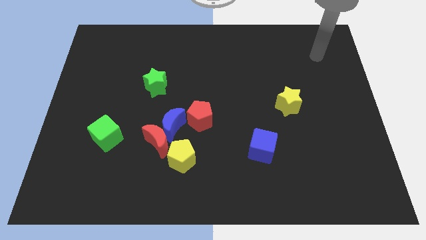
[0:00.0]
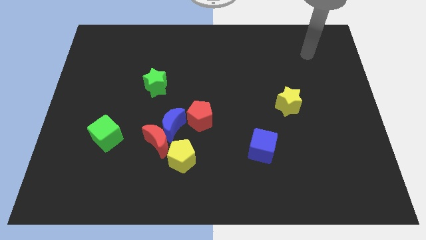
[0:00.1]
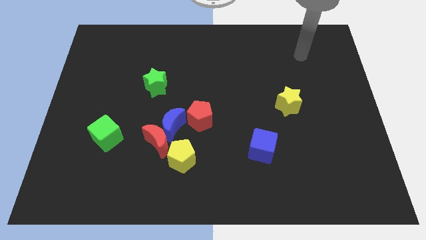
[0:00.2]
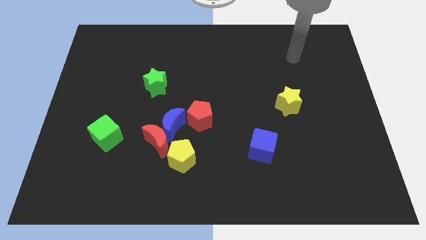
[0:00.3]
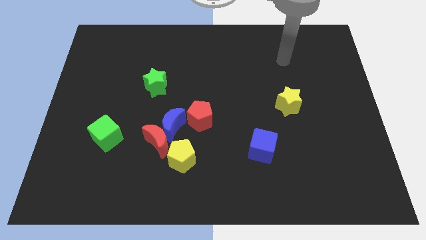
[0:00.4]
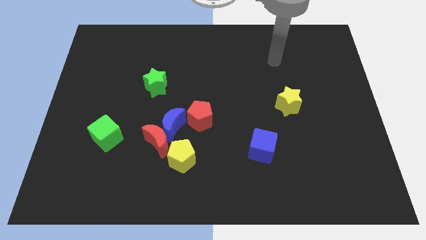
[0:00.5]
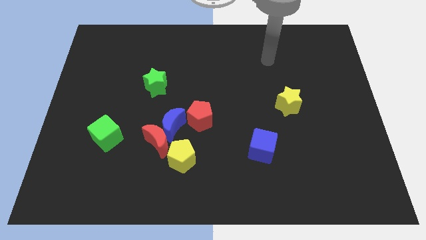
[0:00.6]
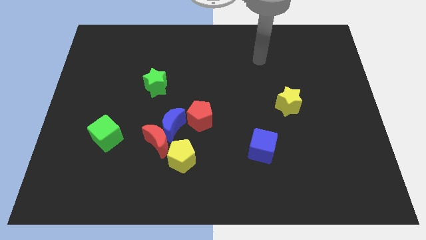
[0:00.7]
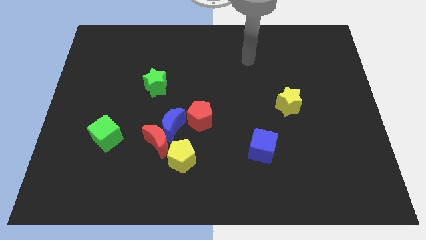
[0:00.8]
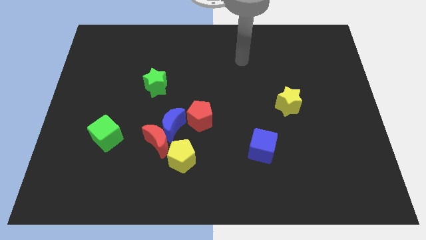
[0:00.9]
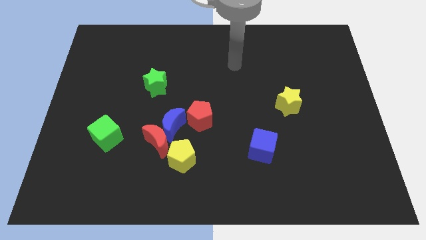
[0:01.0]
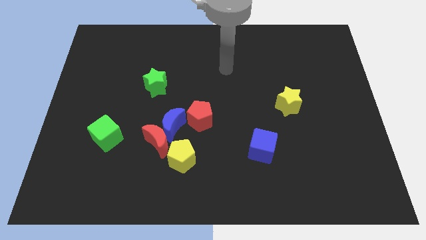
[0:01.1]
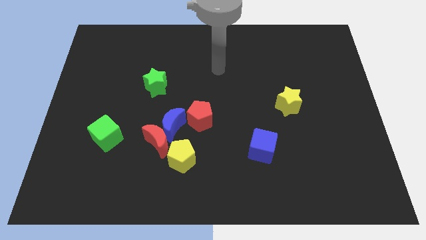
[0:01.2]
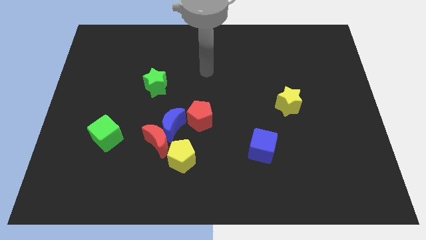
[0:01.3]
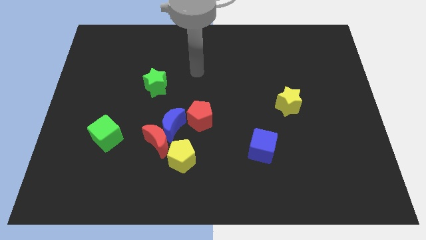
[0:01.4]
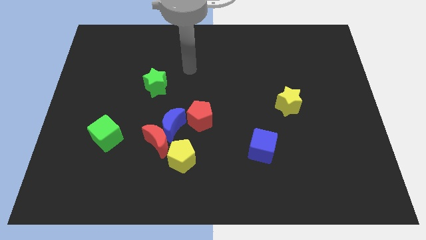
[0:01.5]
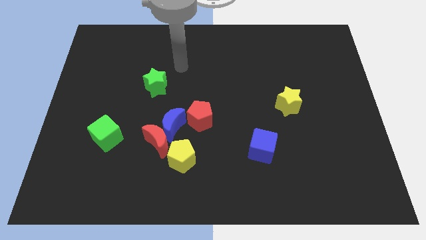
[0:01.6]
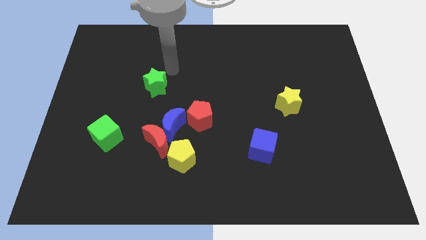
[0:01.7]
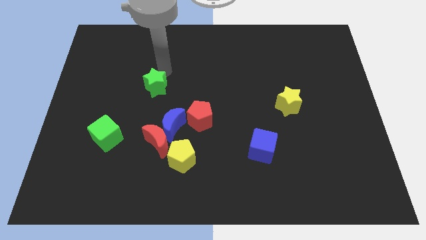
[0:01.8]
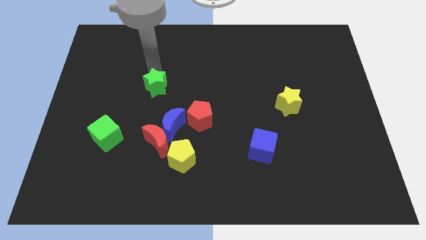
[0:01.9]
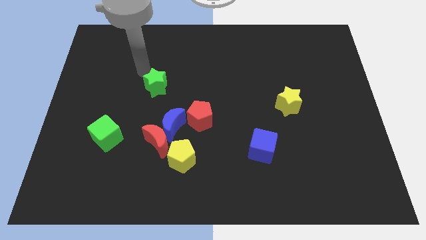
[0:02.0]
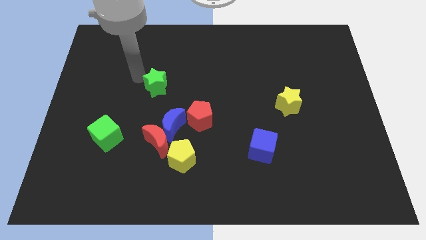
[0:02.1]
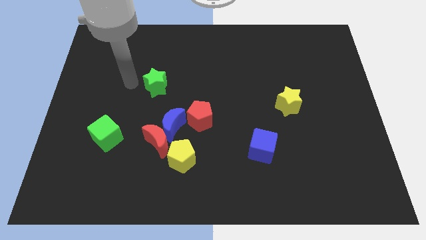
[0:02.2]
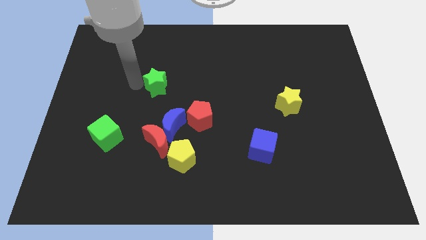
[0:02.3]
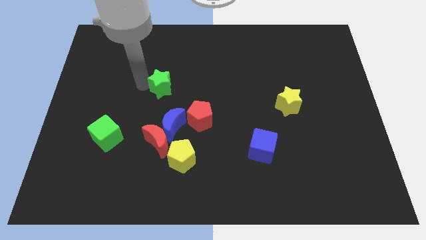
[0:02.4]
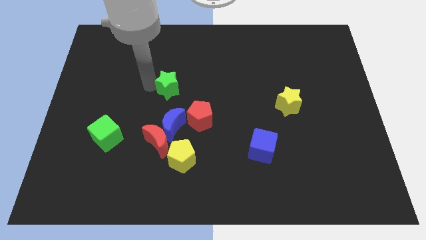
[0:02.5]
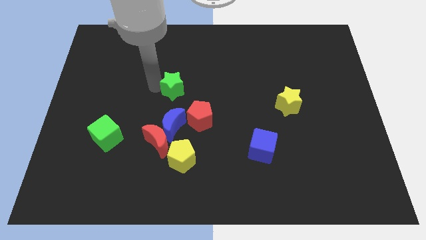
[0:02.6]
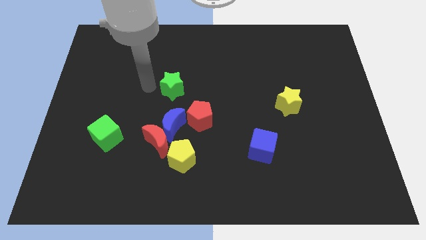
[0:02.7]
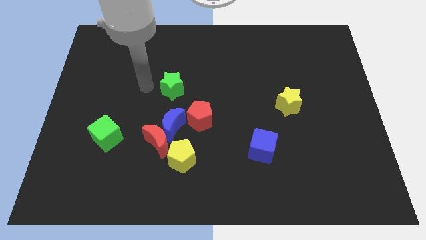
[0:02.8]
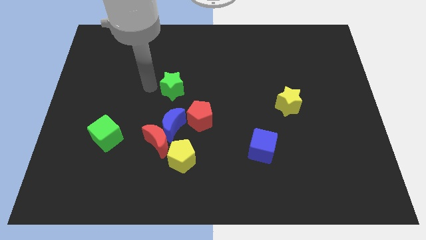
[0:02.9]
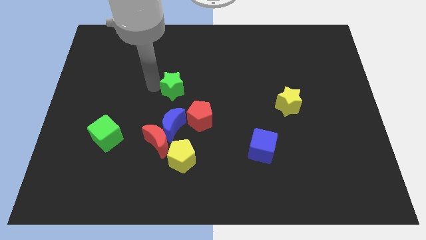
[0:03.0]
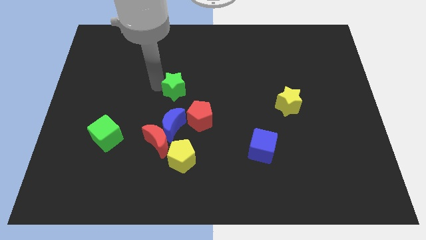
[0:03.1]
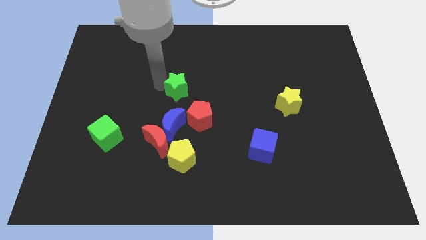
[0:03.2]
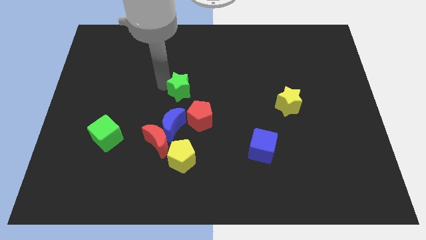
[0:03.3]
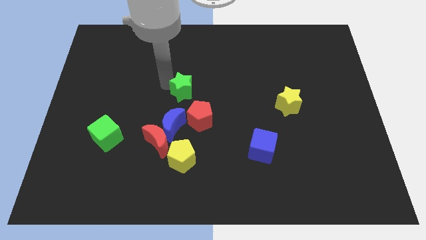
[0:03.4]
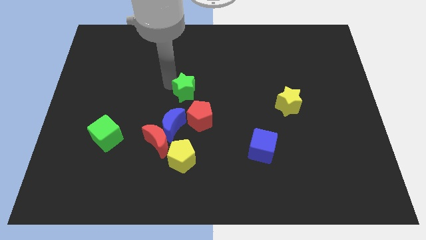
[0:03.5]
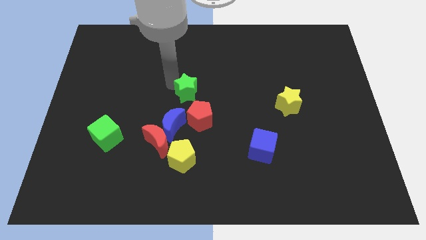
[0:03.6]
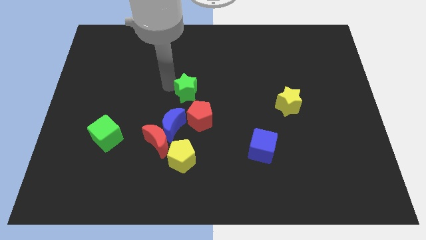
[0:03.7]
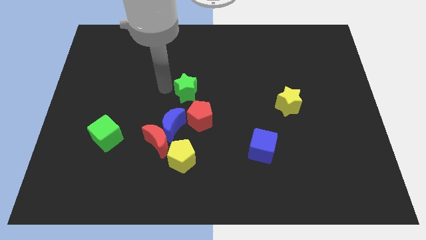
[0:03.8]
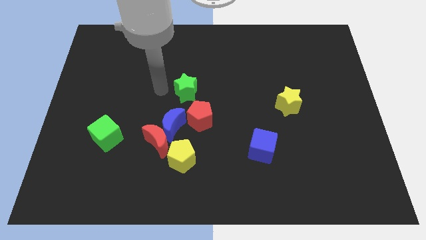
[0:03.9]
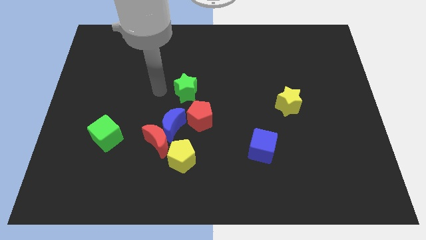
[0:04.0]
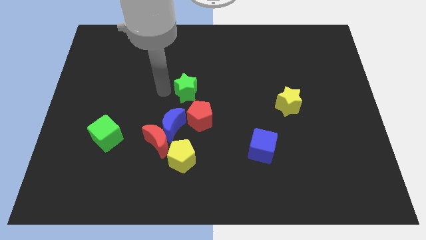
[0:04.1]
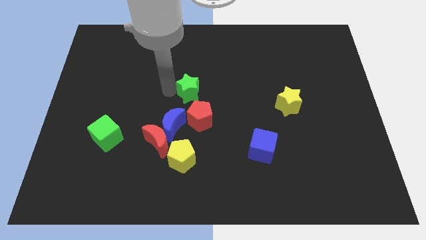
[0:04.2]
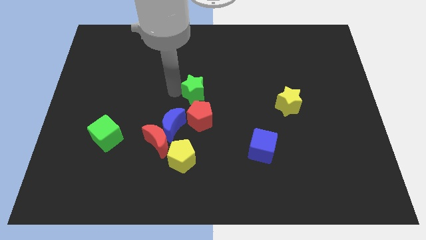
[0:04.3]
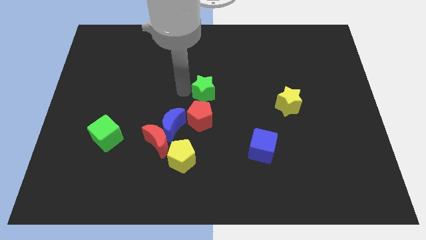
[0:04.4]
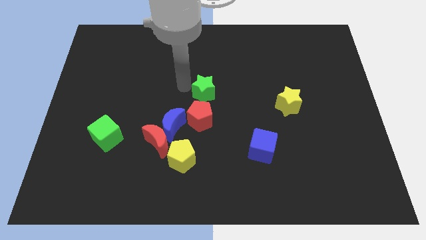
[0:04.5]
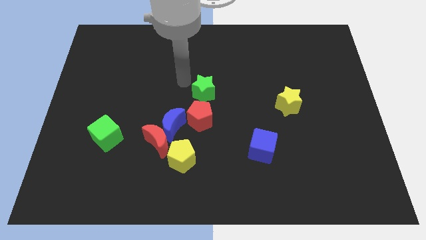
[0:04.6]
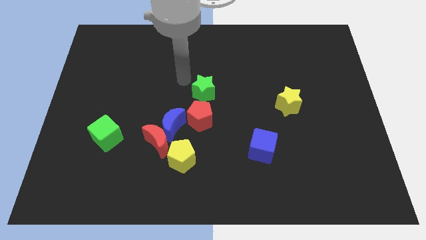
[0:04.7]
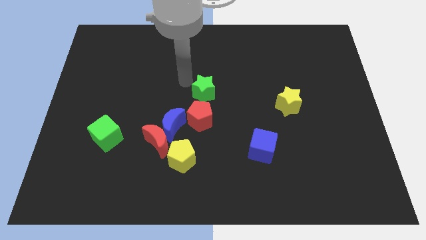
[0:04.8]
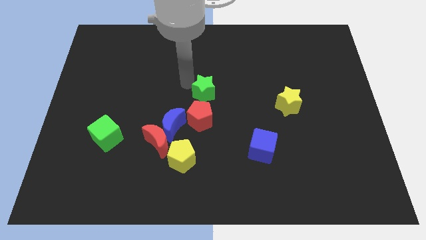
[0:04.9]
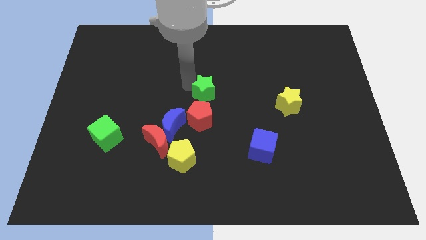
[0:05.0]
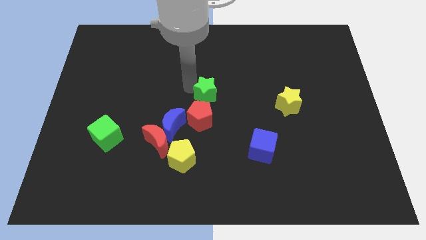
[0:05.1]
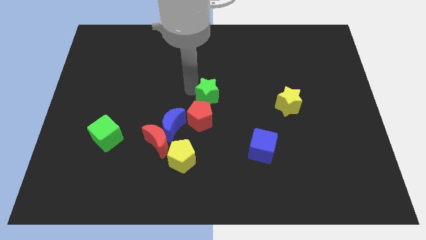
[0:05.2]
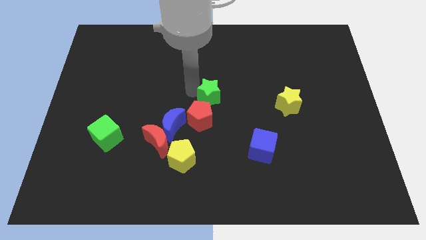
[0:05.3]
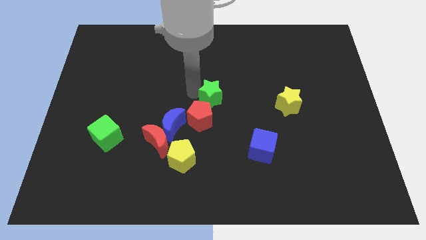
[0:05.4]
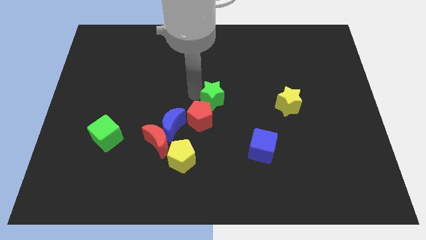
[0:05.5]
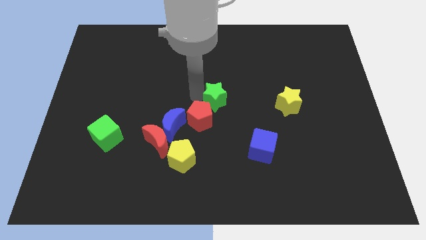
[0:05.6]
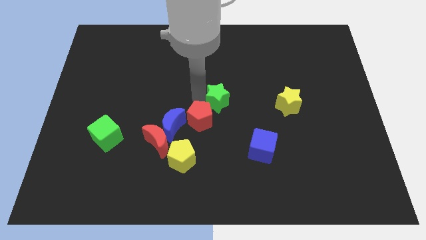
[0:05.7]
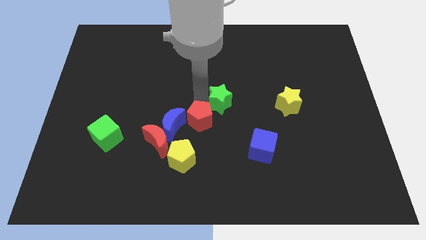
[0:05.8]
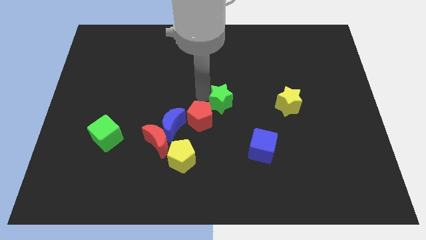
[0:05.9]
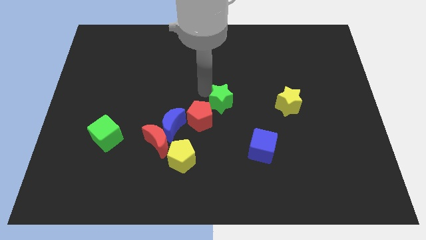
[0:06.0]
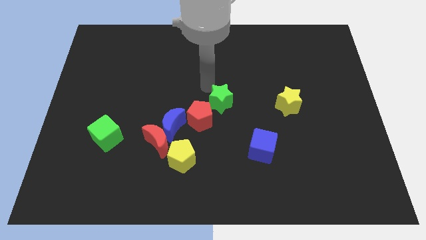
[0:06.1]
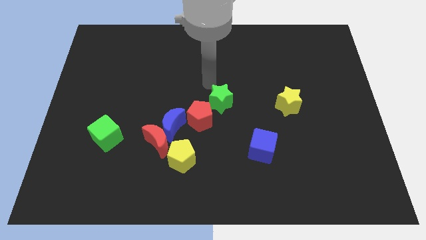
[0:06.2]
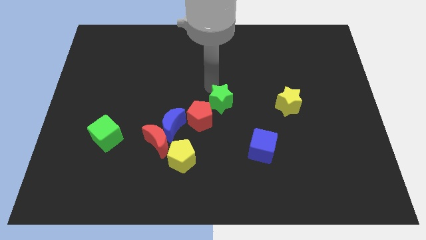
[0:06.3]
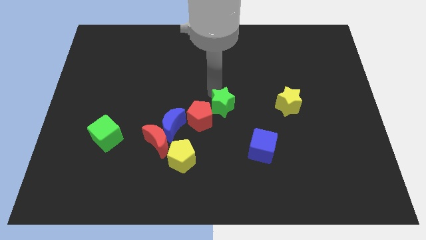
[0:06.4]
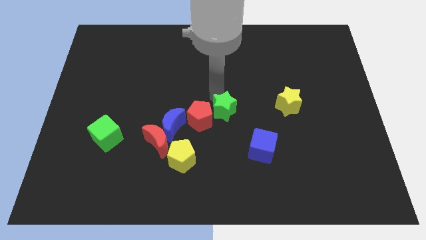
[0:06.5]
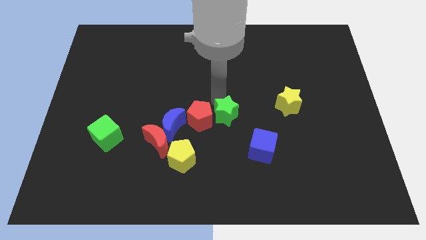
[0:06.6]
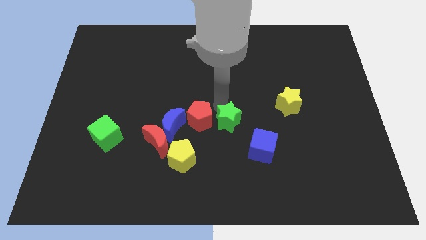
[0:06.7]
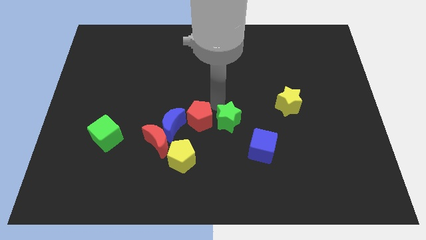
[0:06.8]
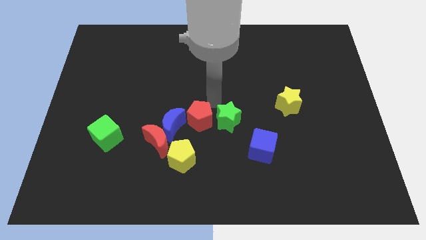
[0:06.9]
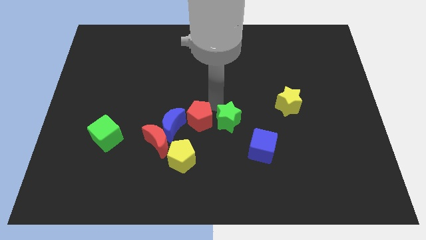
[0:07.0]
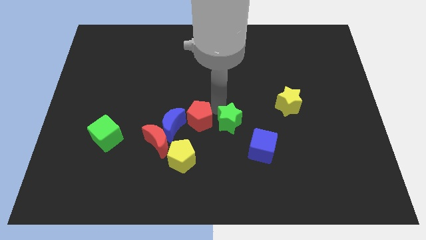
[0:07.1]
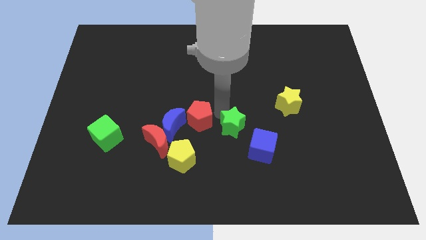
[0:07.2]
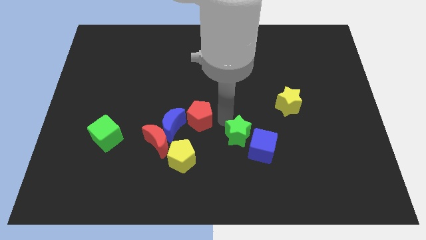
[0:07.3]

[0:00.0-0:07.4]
push the green star close to the blue cube
